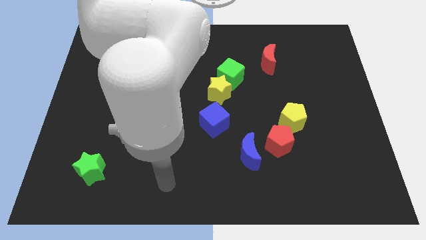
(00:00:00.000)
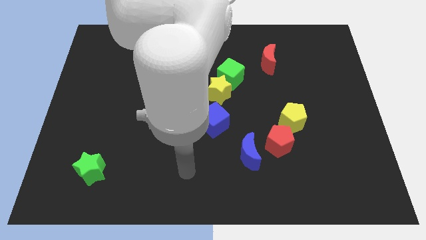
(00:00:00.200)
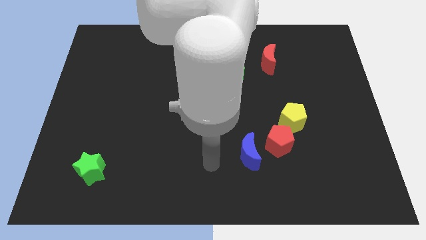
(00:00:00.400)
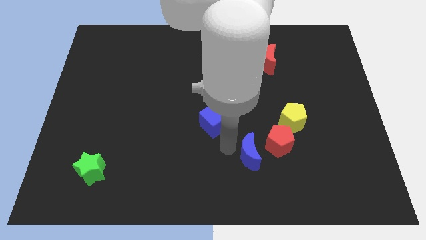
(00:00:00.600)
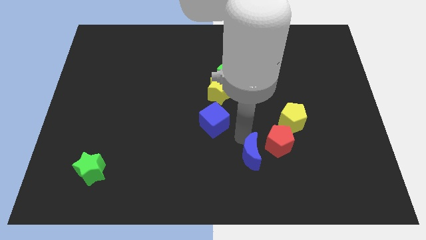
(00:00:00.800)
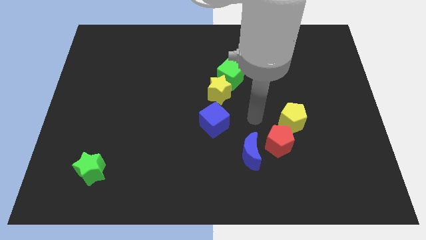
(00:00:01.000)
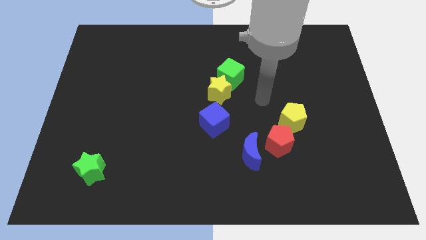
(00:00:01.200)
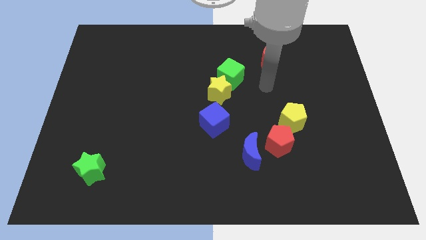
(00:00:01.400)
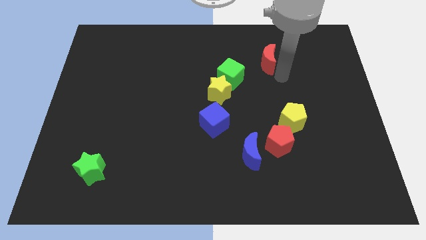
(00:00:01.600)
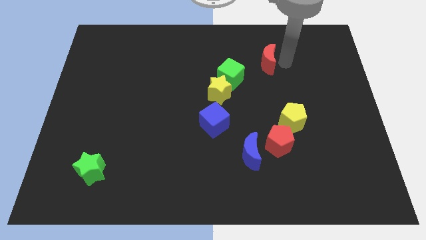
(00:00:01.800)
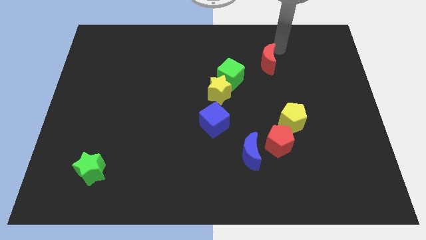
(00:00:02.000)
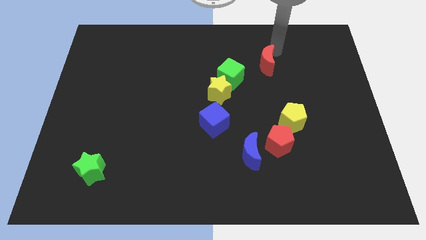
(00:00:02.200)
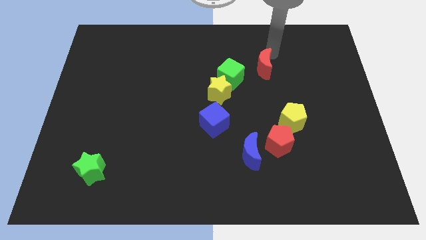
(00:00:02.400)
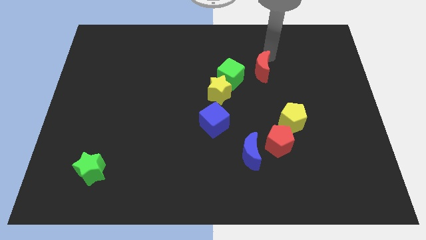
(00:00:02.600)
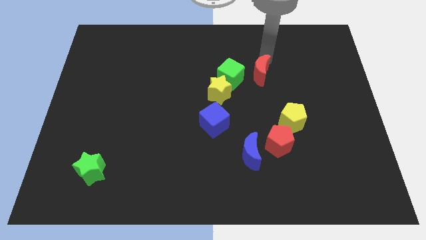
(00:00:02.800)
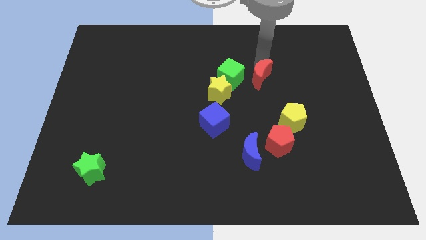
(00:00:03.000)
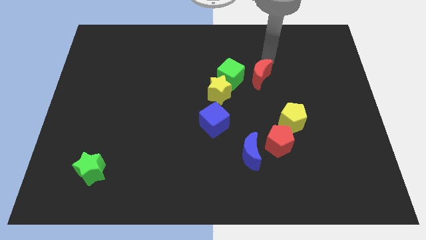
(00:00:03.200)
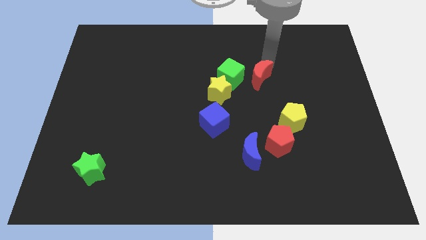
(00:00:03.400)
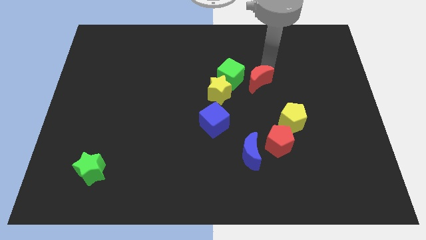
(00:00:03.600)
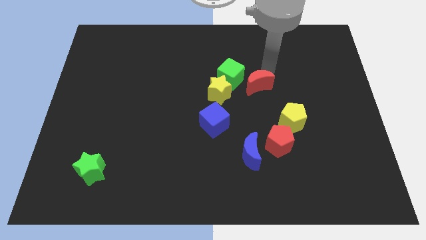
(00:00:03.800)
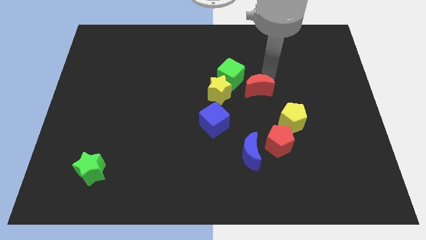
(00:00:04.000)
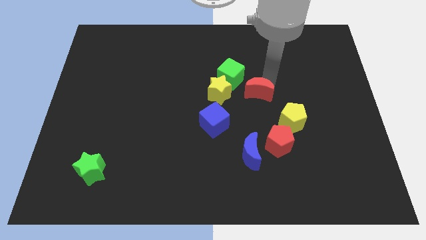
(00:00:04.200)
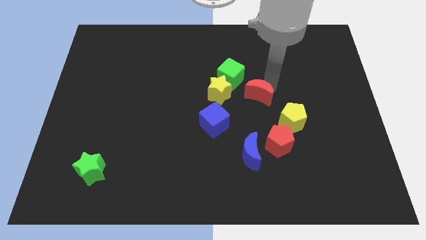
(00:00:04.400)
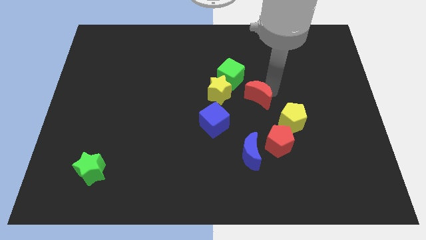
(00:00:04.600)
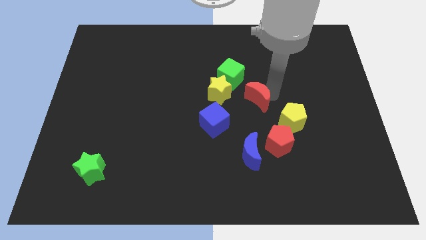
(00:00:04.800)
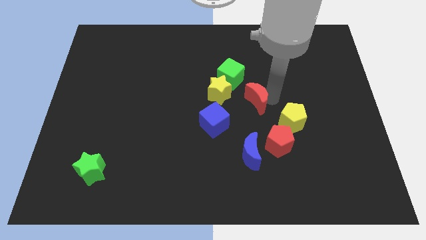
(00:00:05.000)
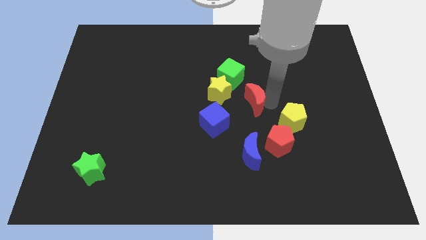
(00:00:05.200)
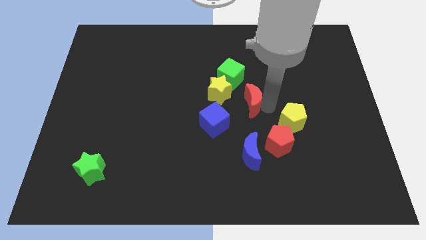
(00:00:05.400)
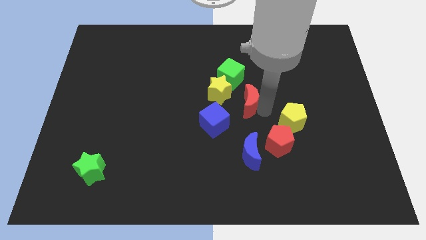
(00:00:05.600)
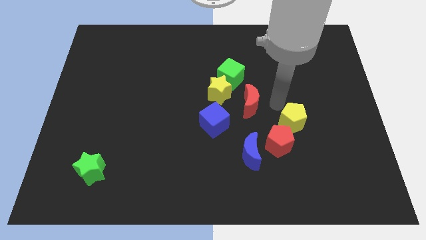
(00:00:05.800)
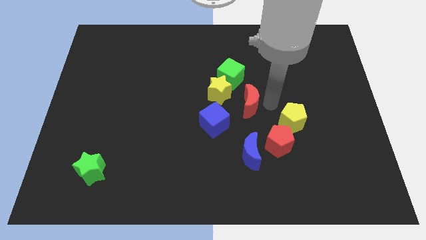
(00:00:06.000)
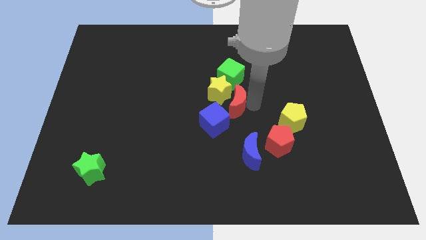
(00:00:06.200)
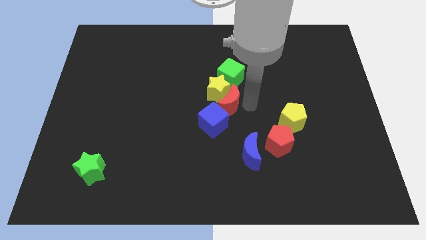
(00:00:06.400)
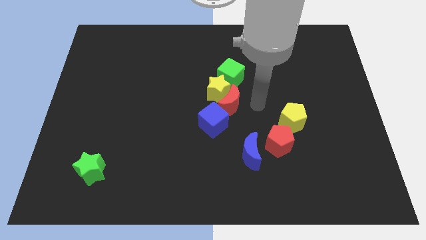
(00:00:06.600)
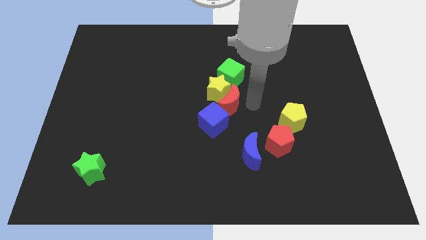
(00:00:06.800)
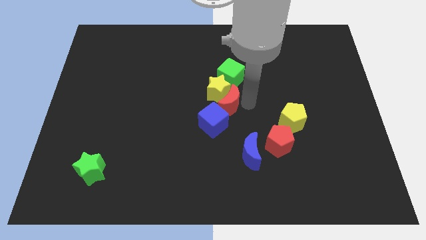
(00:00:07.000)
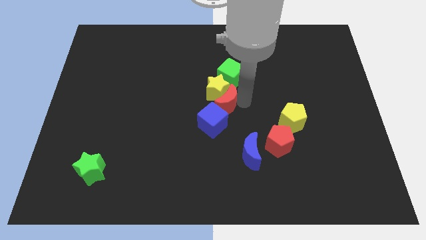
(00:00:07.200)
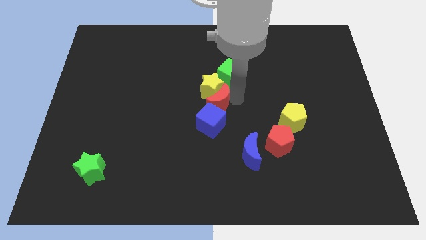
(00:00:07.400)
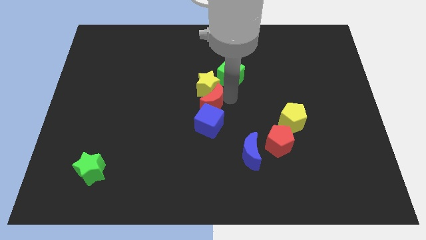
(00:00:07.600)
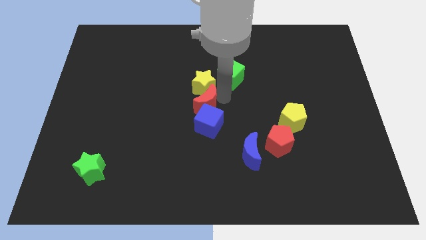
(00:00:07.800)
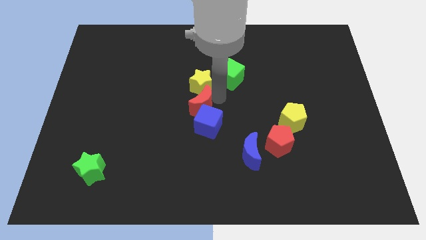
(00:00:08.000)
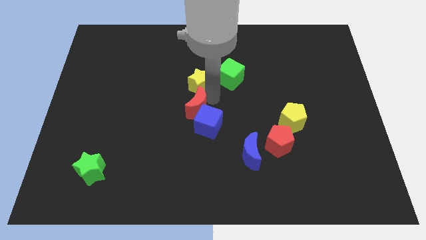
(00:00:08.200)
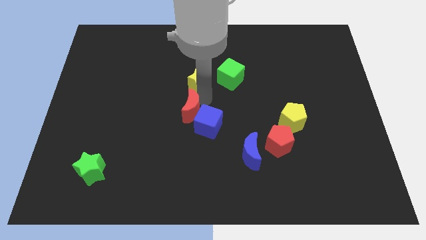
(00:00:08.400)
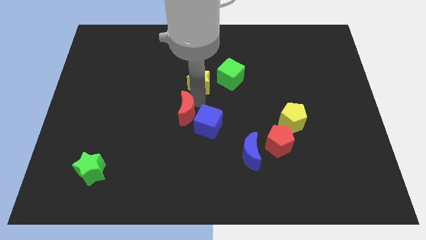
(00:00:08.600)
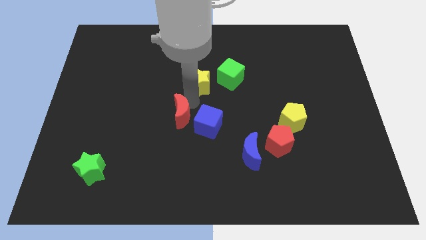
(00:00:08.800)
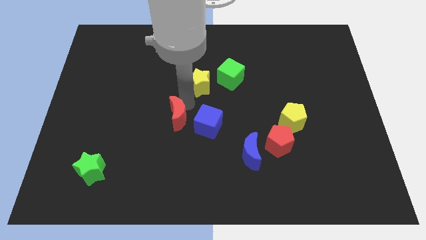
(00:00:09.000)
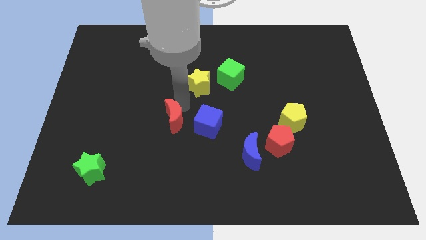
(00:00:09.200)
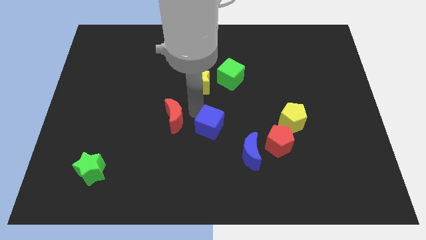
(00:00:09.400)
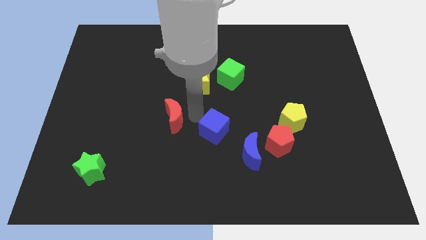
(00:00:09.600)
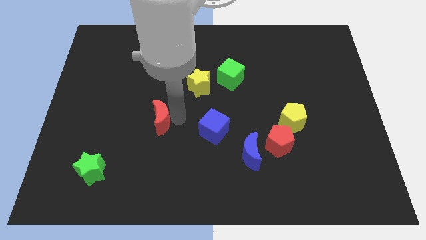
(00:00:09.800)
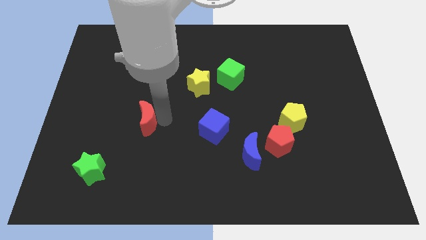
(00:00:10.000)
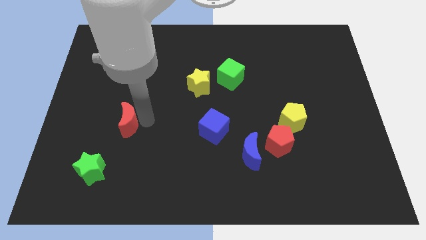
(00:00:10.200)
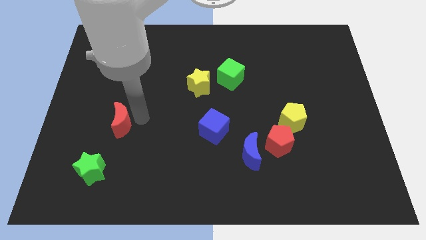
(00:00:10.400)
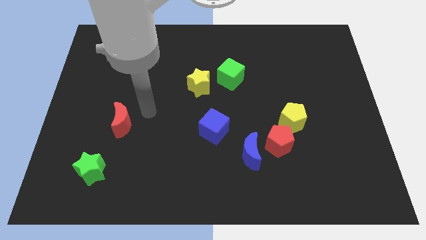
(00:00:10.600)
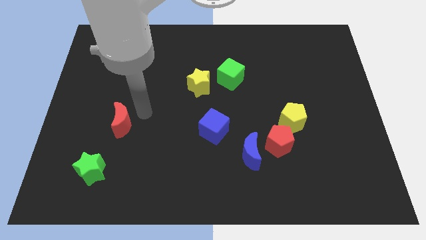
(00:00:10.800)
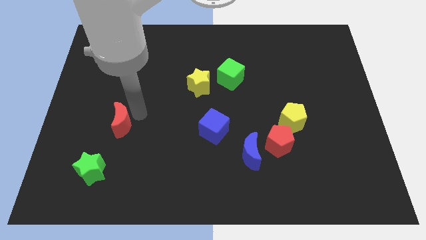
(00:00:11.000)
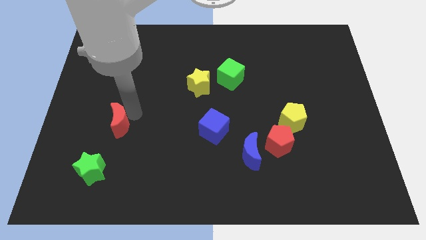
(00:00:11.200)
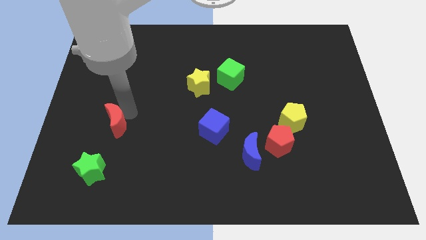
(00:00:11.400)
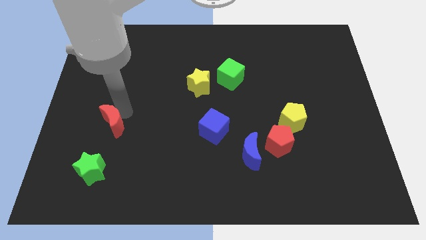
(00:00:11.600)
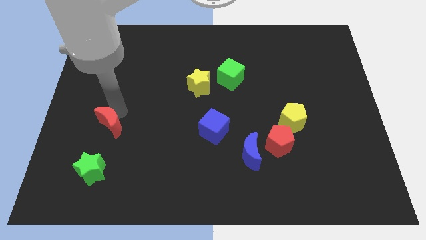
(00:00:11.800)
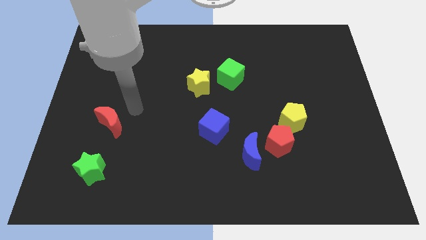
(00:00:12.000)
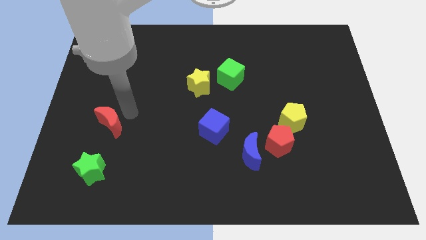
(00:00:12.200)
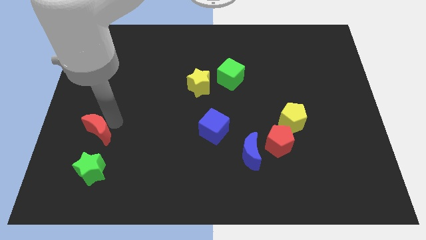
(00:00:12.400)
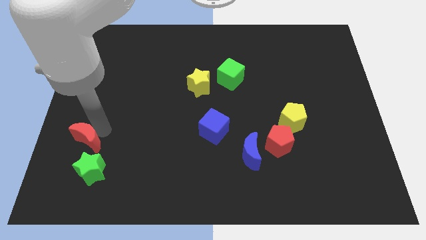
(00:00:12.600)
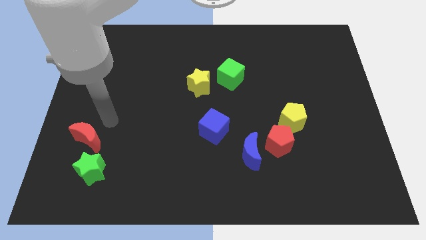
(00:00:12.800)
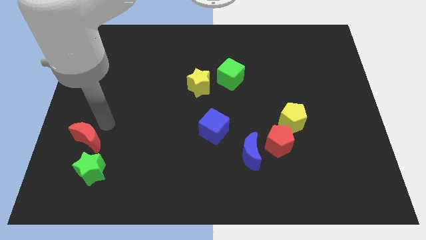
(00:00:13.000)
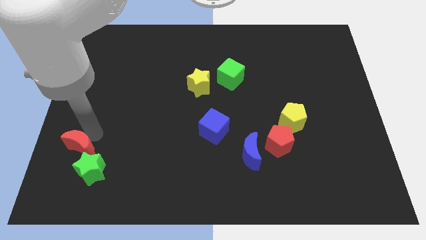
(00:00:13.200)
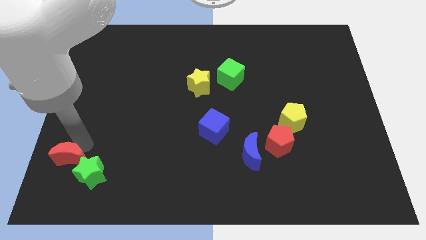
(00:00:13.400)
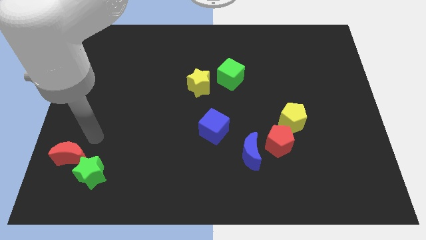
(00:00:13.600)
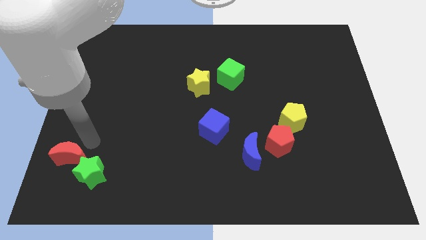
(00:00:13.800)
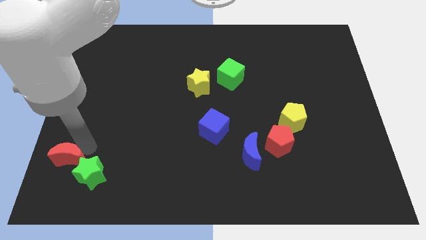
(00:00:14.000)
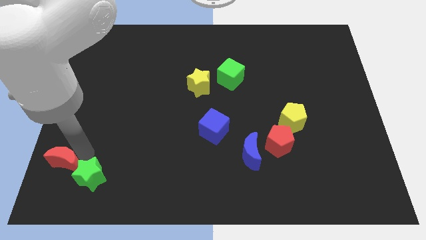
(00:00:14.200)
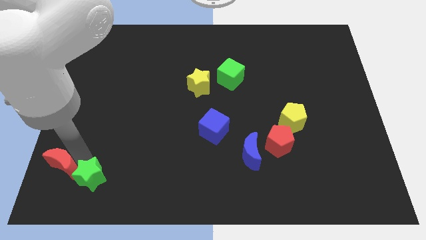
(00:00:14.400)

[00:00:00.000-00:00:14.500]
move the red moon to the bottom left corner
